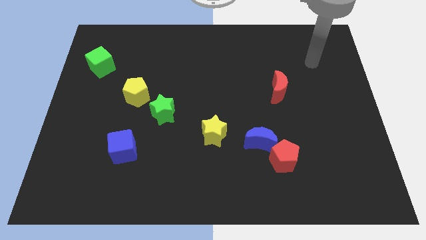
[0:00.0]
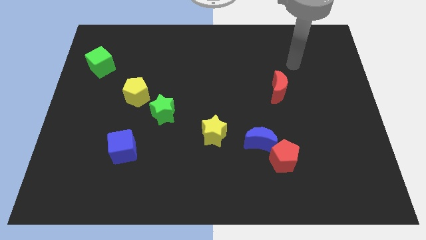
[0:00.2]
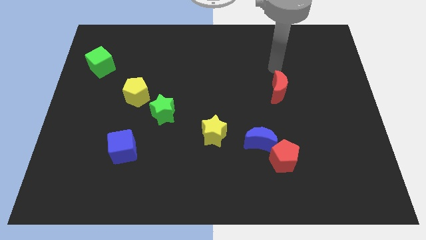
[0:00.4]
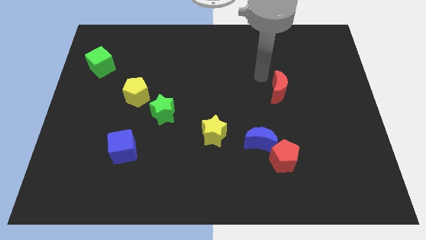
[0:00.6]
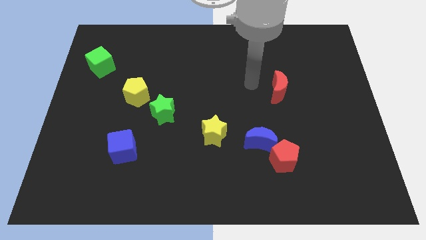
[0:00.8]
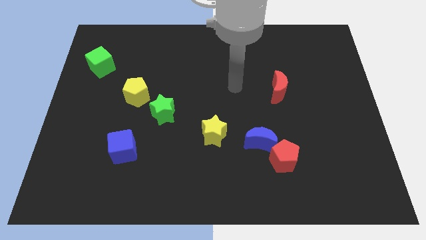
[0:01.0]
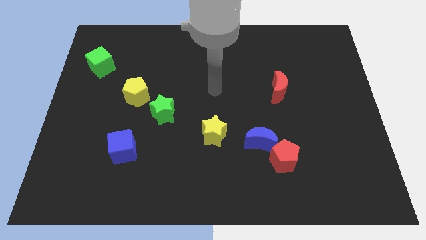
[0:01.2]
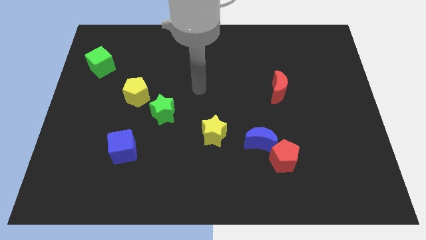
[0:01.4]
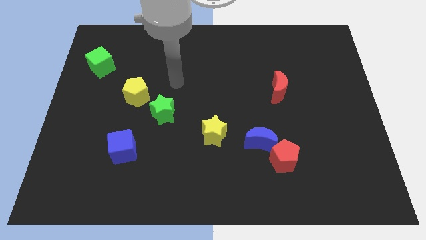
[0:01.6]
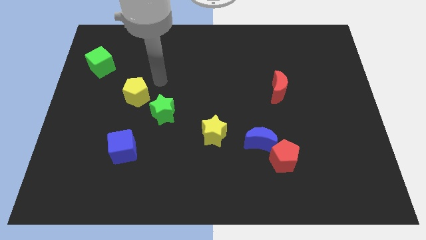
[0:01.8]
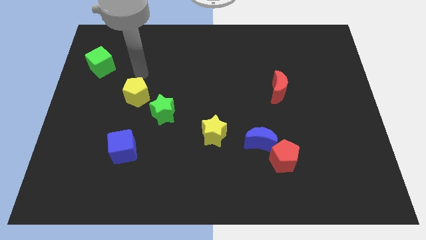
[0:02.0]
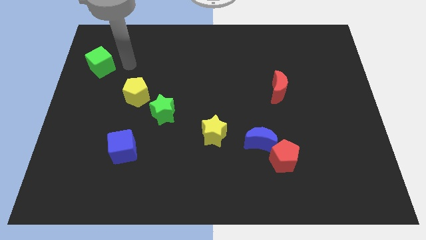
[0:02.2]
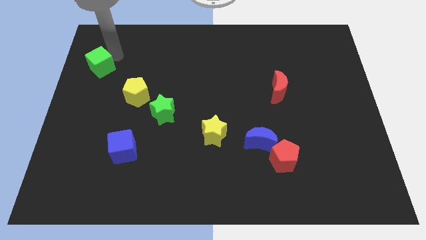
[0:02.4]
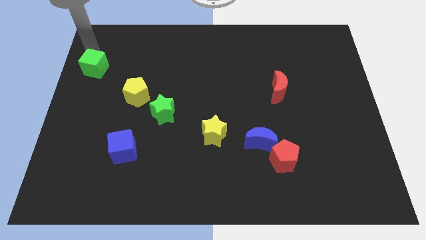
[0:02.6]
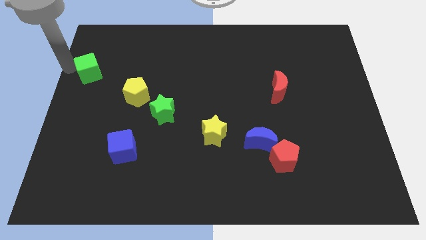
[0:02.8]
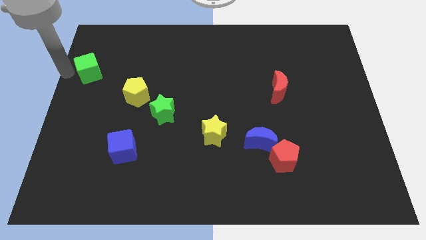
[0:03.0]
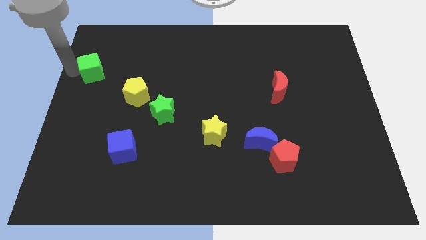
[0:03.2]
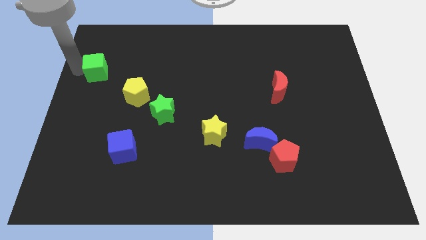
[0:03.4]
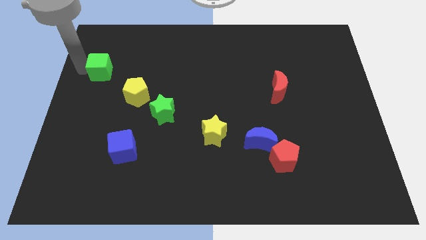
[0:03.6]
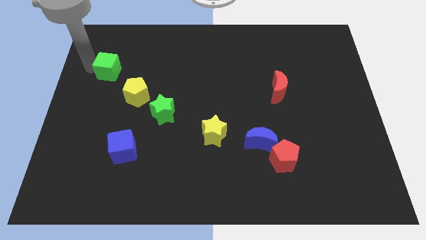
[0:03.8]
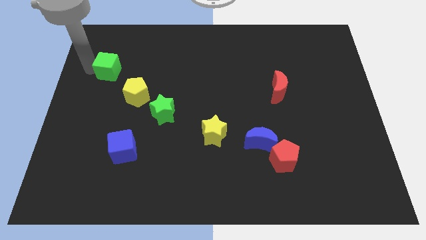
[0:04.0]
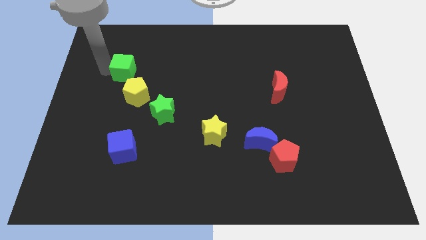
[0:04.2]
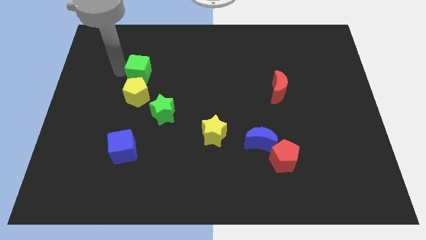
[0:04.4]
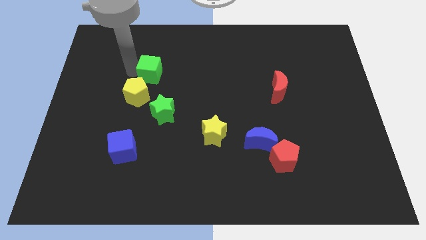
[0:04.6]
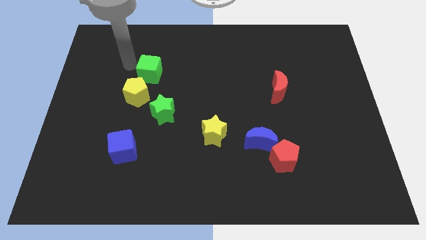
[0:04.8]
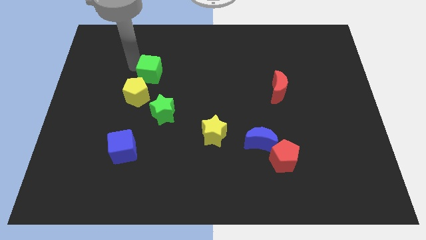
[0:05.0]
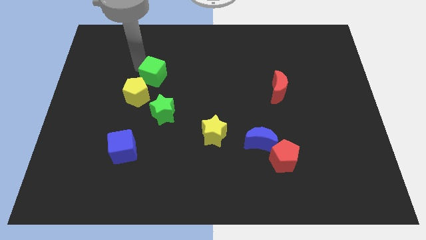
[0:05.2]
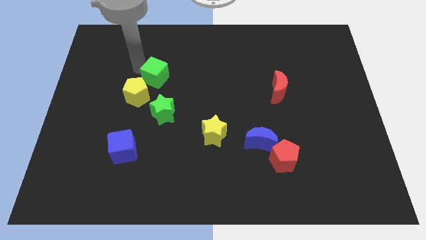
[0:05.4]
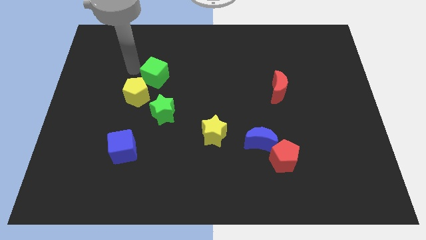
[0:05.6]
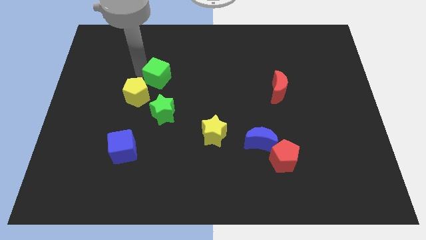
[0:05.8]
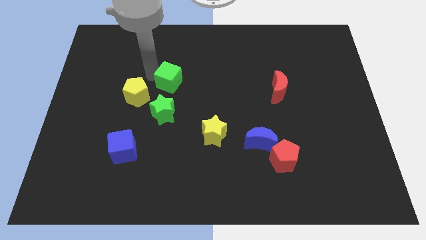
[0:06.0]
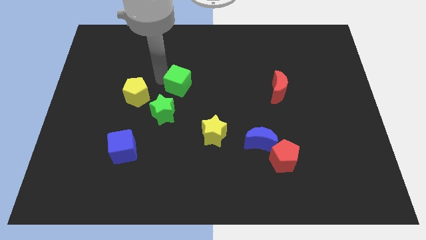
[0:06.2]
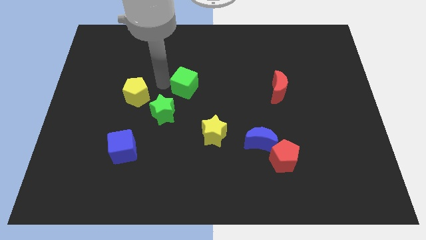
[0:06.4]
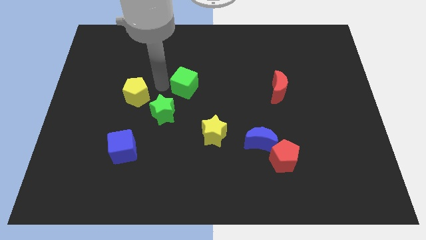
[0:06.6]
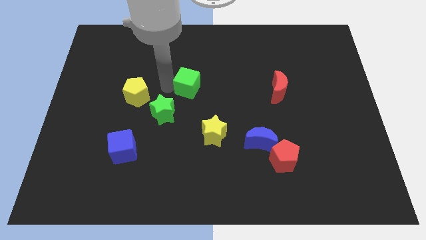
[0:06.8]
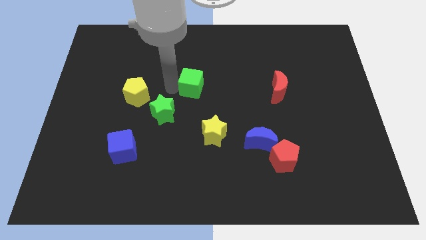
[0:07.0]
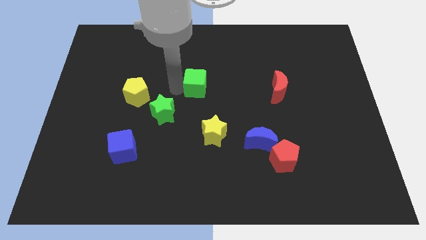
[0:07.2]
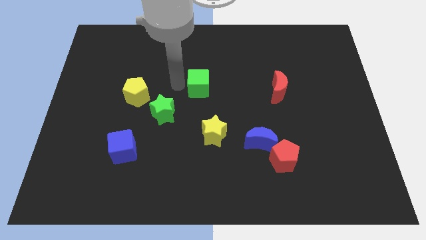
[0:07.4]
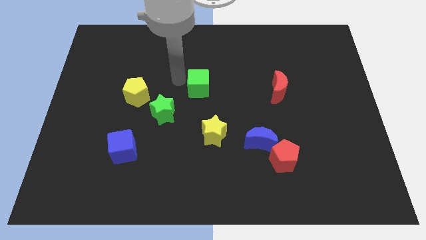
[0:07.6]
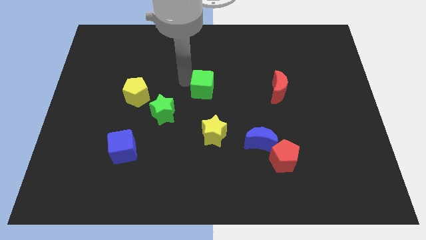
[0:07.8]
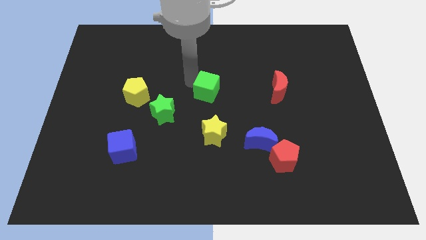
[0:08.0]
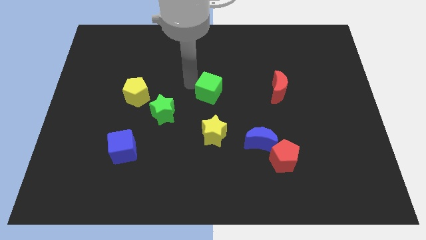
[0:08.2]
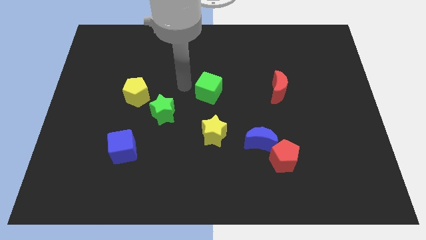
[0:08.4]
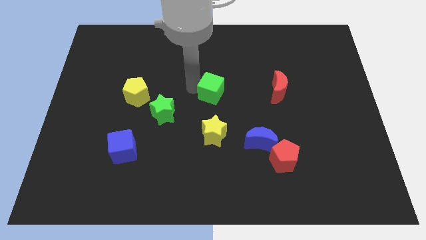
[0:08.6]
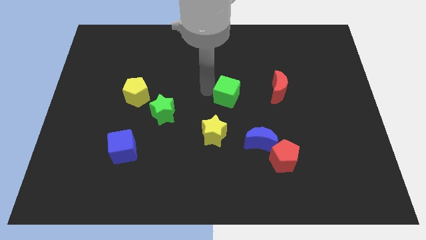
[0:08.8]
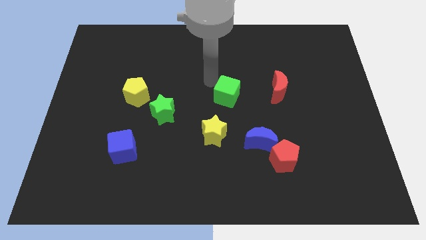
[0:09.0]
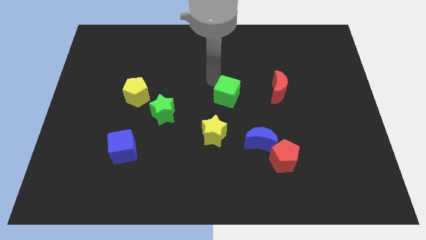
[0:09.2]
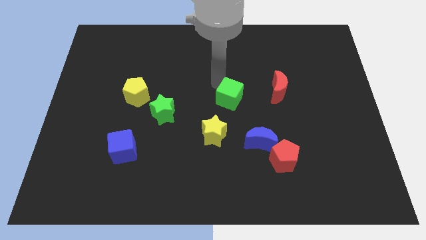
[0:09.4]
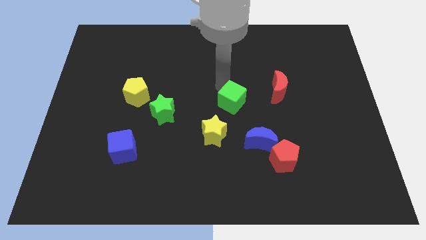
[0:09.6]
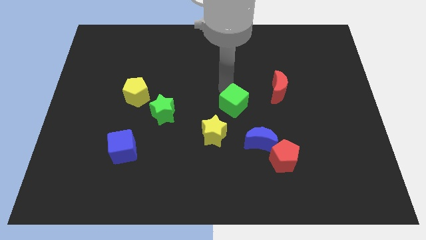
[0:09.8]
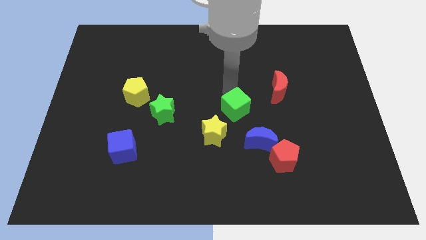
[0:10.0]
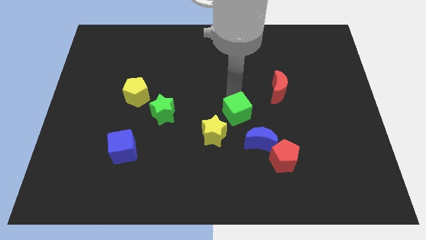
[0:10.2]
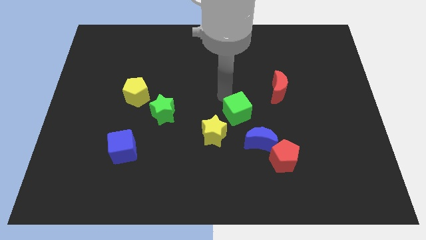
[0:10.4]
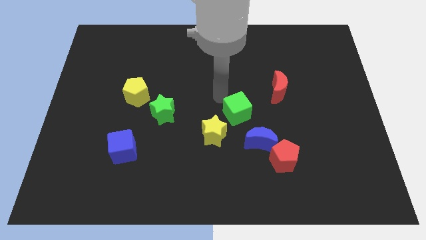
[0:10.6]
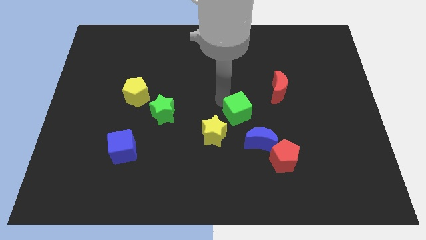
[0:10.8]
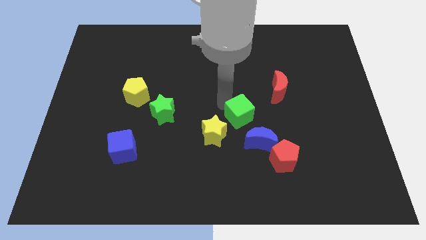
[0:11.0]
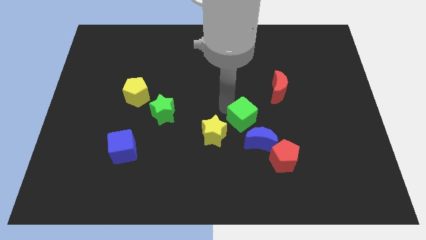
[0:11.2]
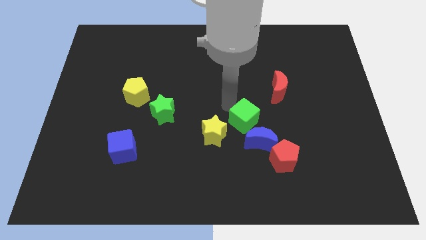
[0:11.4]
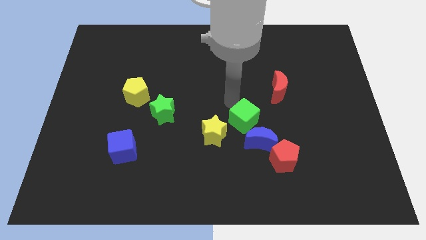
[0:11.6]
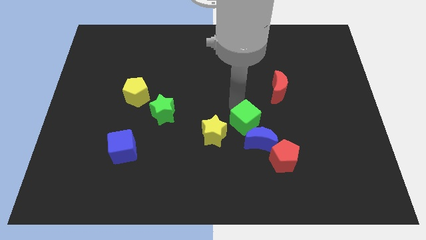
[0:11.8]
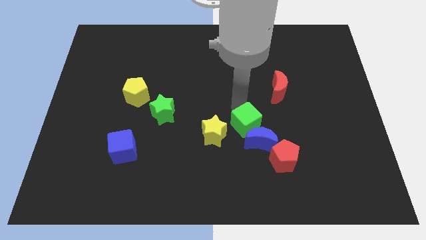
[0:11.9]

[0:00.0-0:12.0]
move the green cube close to the blue moon
